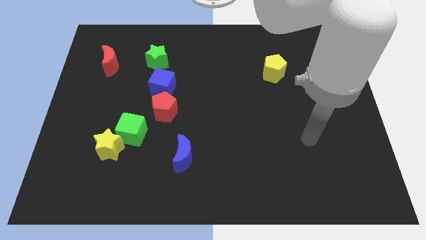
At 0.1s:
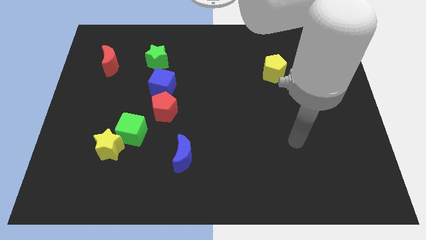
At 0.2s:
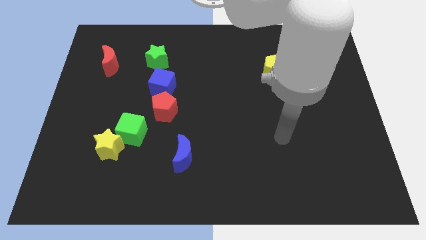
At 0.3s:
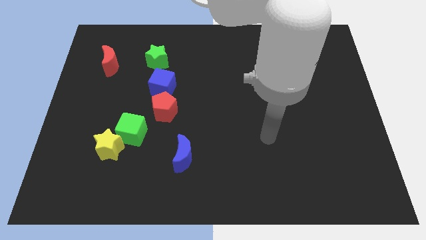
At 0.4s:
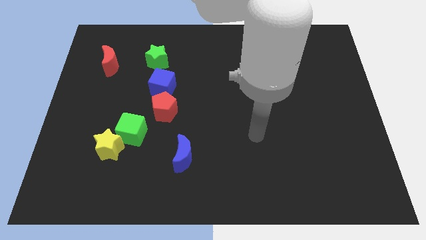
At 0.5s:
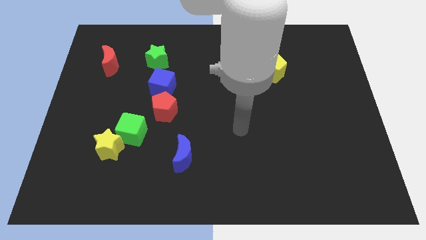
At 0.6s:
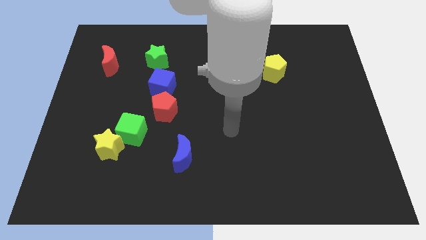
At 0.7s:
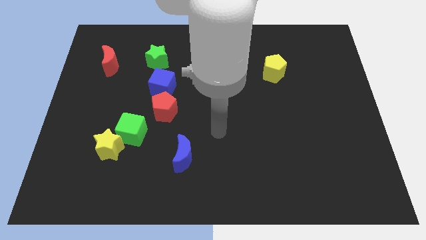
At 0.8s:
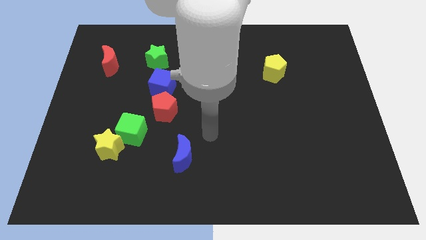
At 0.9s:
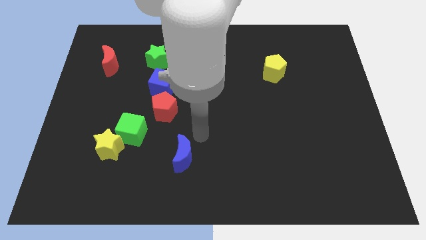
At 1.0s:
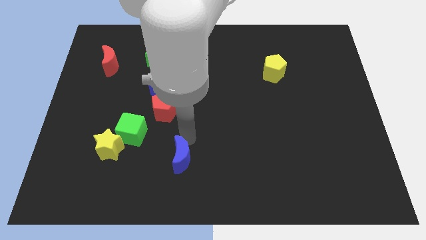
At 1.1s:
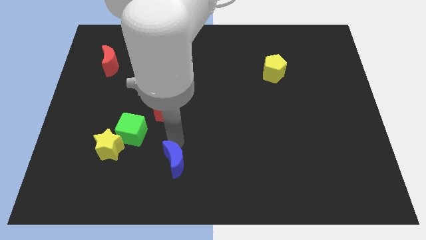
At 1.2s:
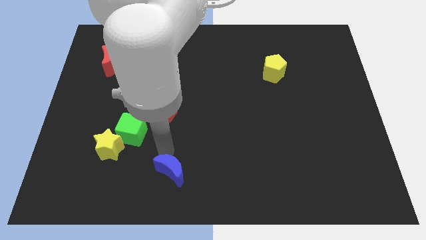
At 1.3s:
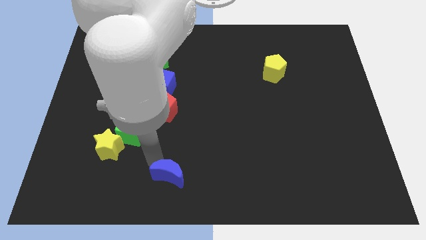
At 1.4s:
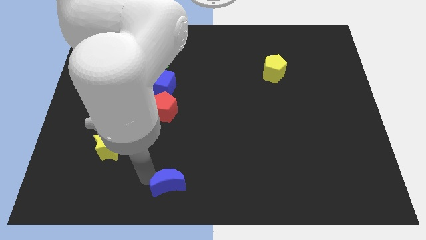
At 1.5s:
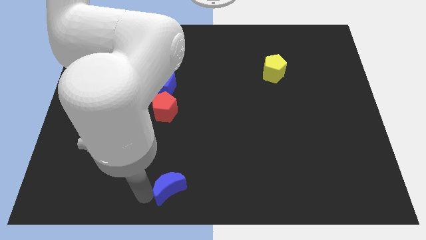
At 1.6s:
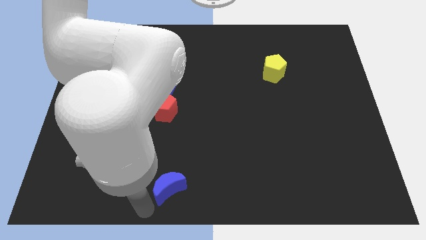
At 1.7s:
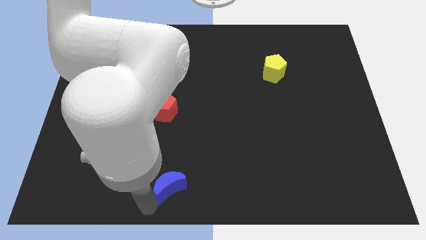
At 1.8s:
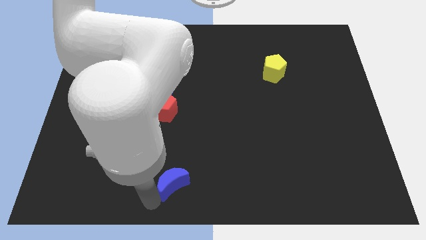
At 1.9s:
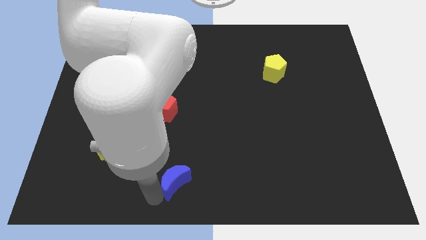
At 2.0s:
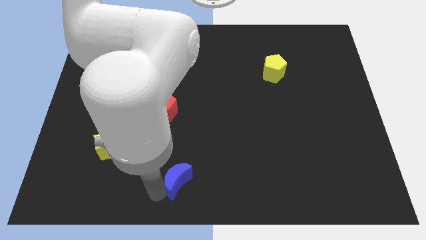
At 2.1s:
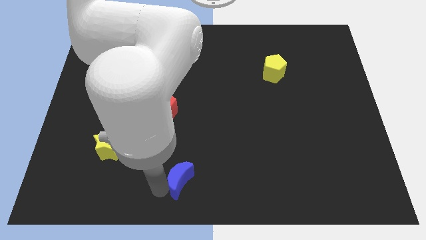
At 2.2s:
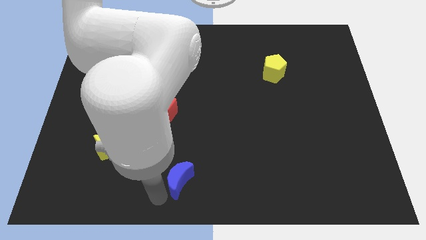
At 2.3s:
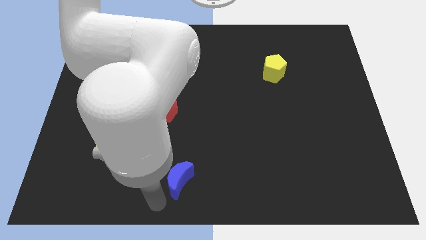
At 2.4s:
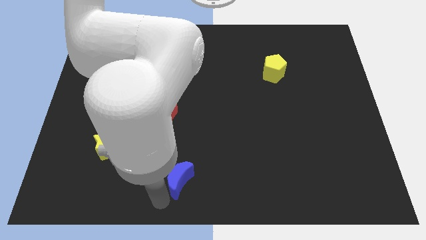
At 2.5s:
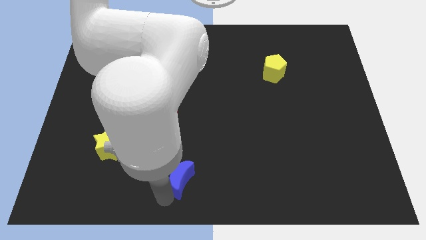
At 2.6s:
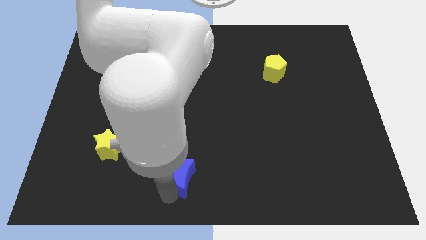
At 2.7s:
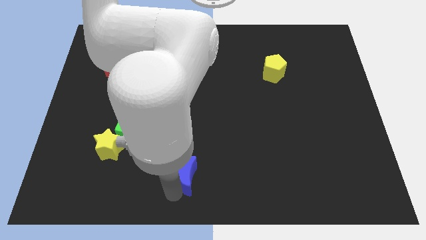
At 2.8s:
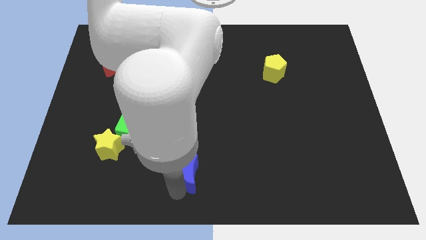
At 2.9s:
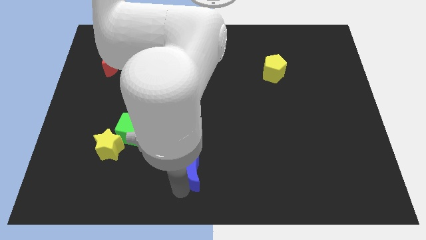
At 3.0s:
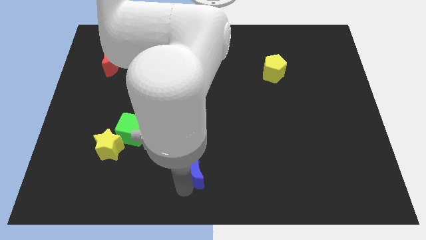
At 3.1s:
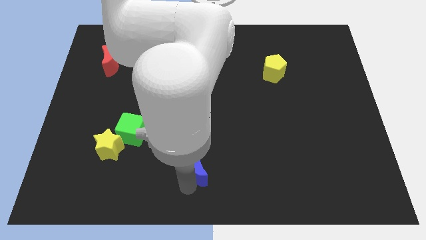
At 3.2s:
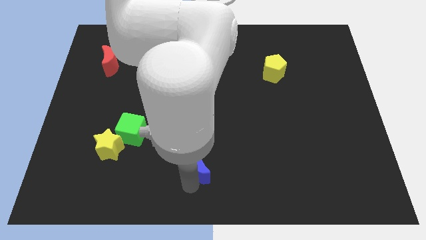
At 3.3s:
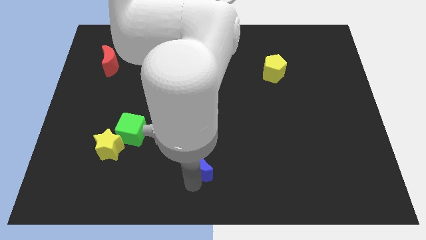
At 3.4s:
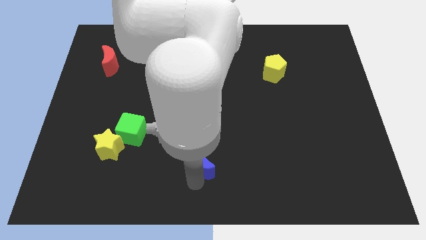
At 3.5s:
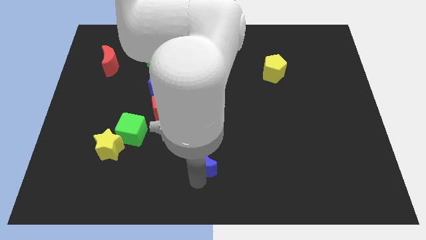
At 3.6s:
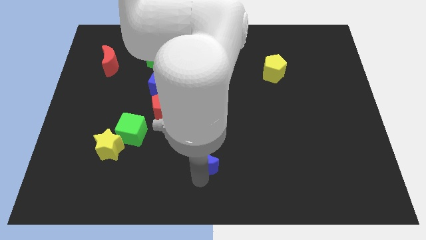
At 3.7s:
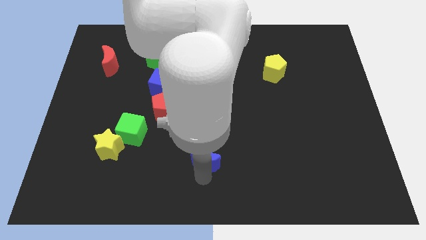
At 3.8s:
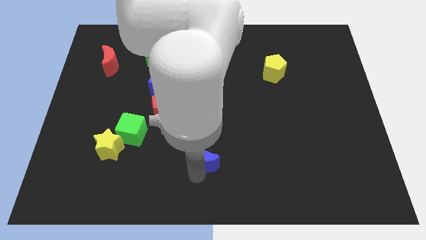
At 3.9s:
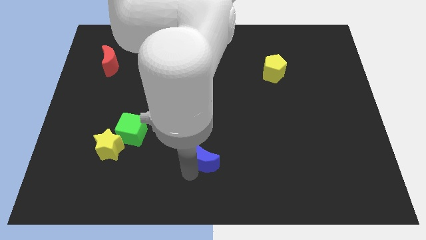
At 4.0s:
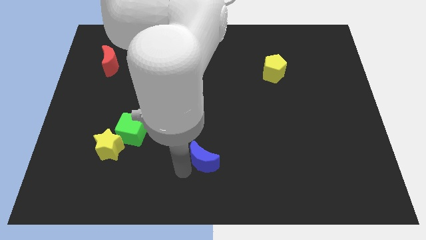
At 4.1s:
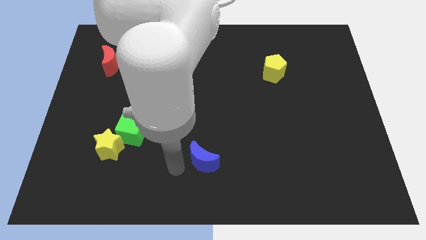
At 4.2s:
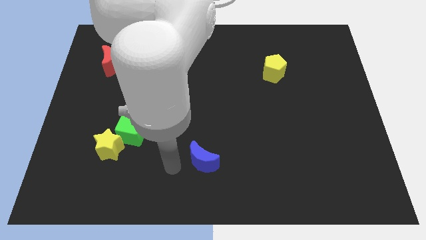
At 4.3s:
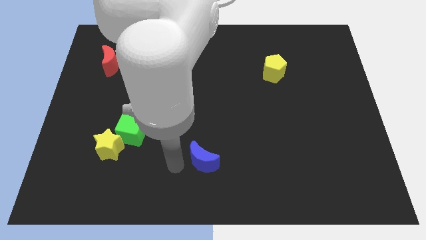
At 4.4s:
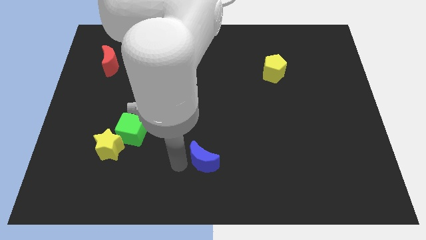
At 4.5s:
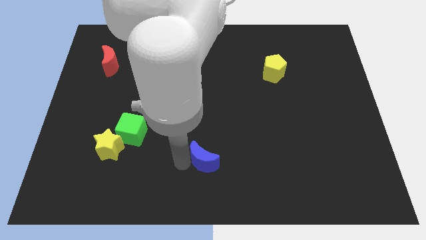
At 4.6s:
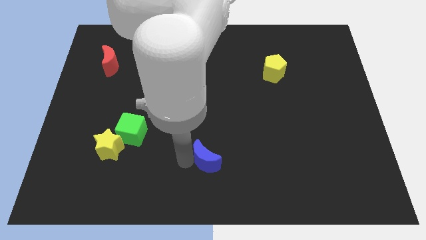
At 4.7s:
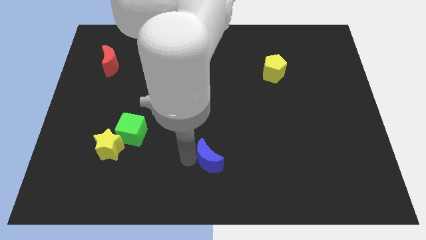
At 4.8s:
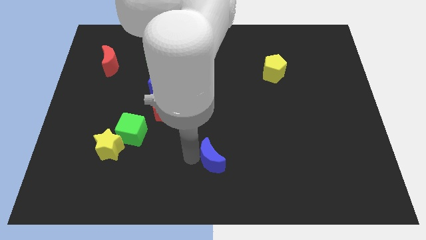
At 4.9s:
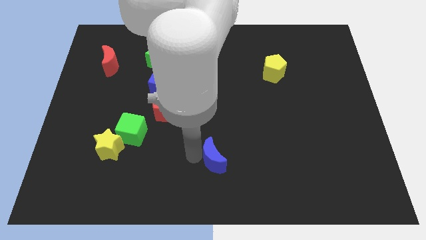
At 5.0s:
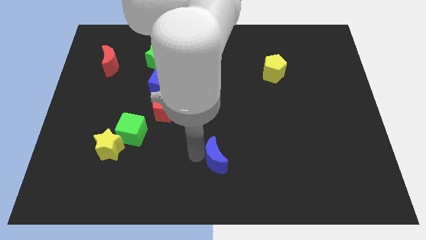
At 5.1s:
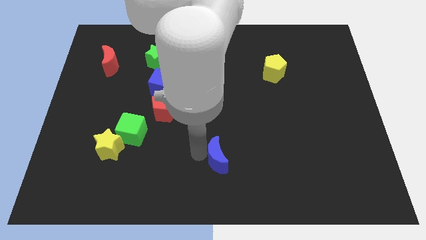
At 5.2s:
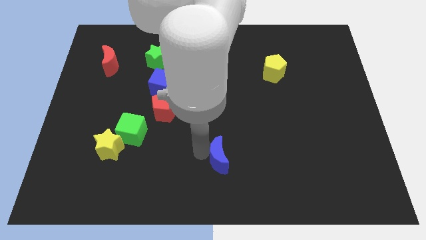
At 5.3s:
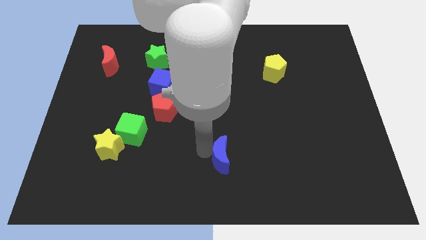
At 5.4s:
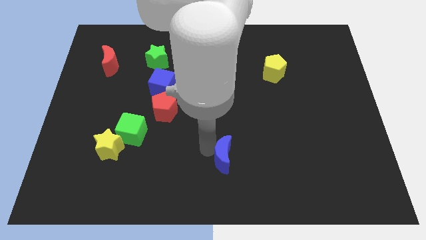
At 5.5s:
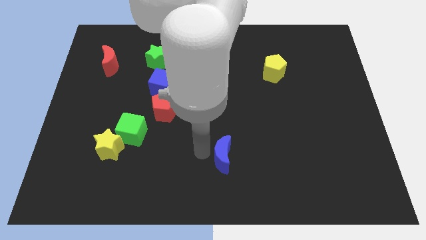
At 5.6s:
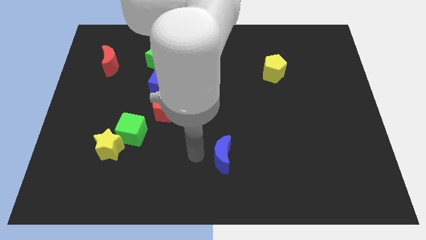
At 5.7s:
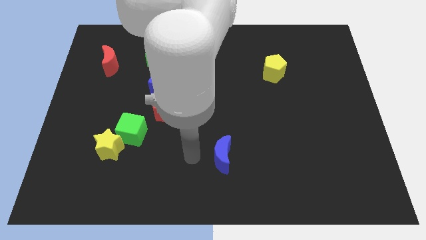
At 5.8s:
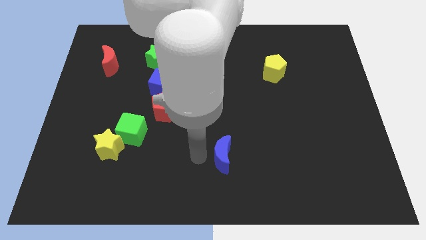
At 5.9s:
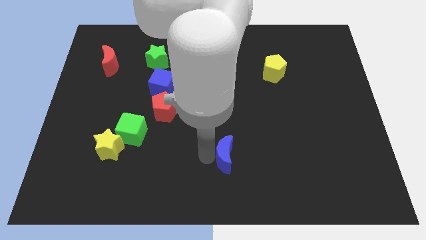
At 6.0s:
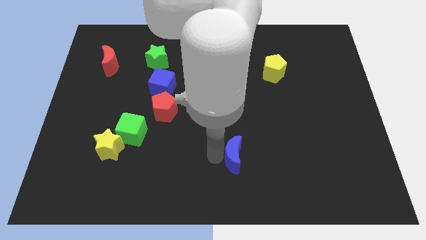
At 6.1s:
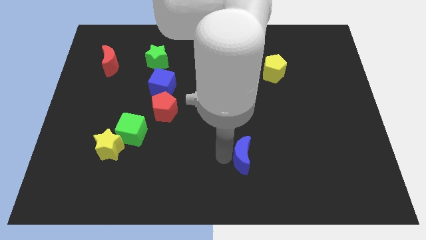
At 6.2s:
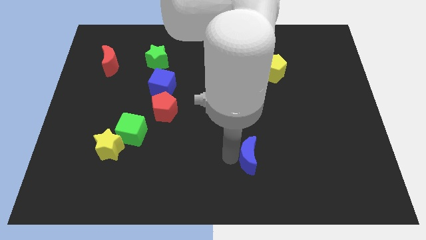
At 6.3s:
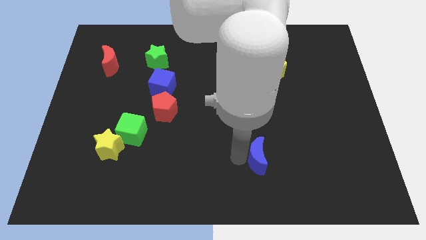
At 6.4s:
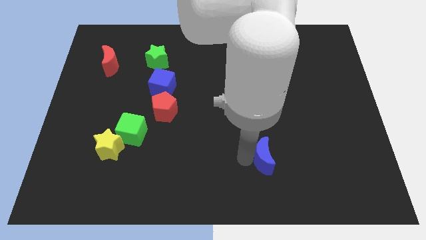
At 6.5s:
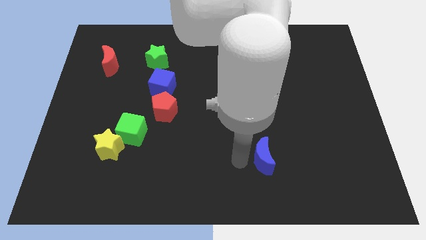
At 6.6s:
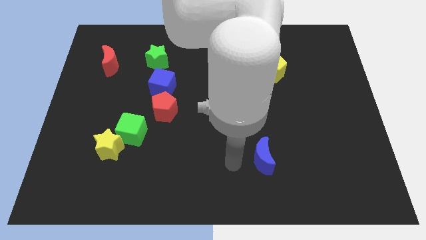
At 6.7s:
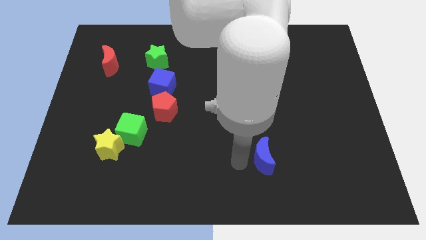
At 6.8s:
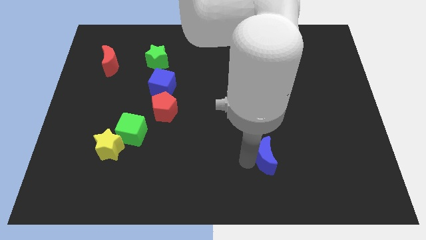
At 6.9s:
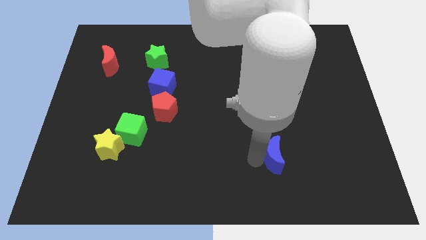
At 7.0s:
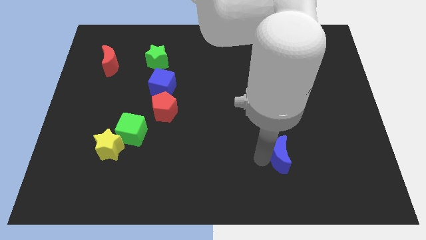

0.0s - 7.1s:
move the blue moon right

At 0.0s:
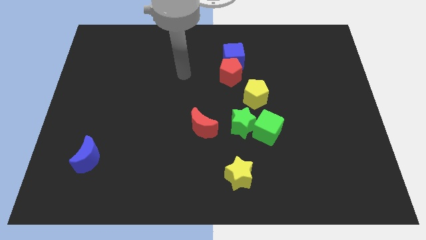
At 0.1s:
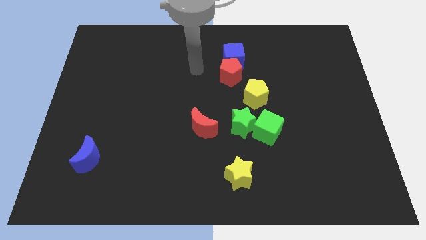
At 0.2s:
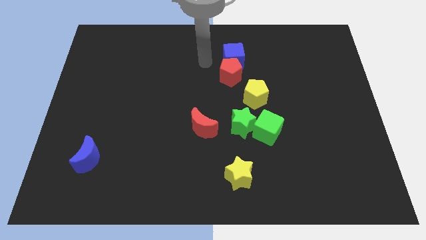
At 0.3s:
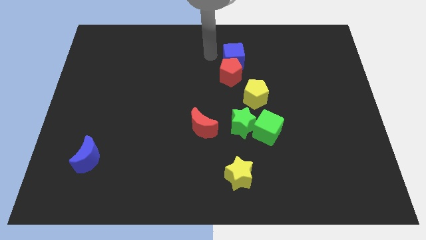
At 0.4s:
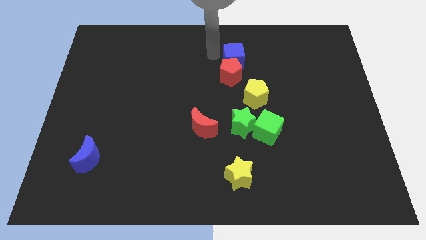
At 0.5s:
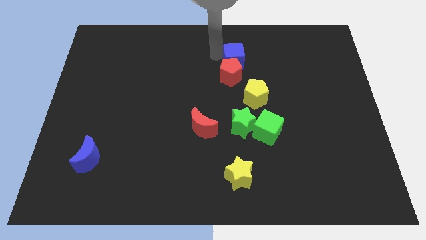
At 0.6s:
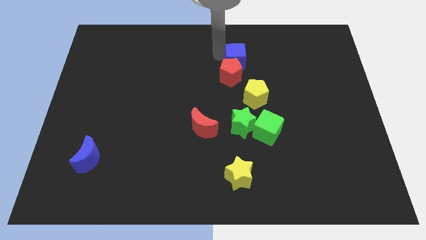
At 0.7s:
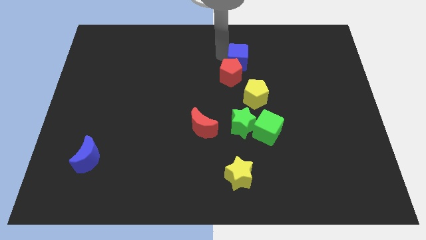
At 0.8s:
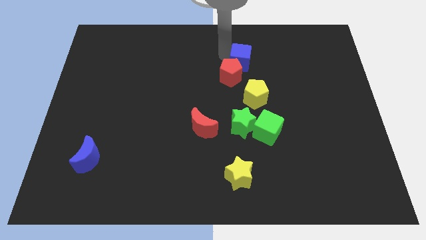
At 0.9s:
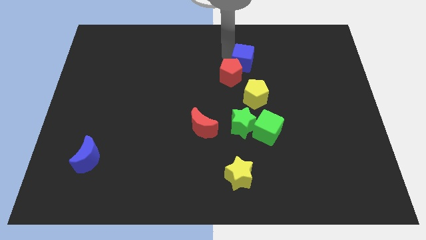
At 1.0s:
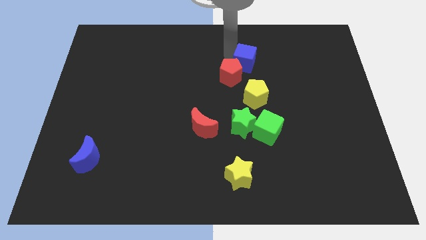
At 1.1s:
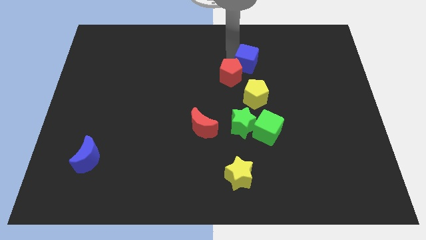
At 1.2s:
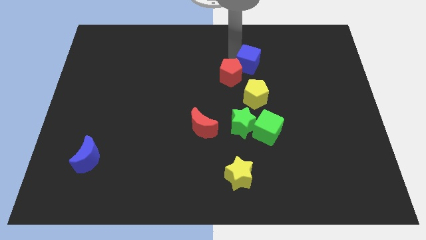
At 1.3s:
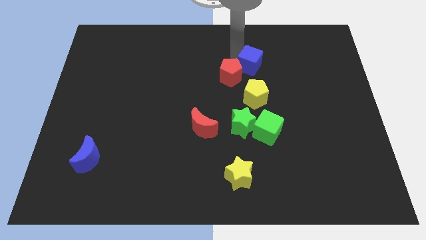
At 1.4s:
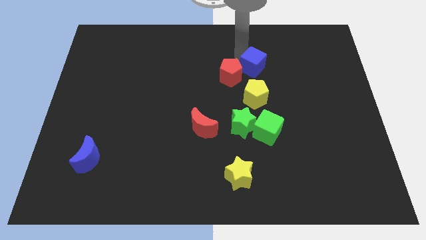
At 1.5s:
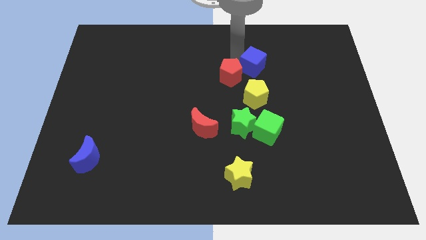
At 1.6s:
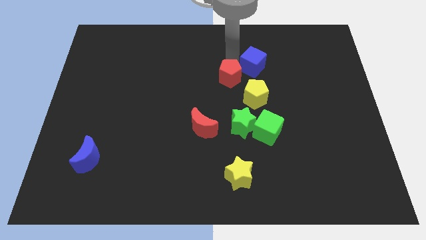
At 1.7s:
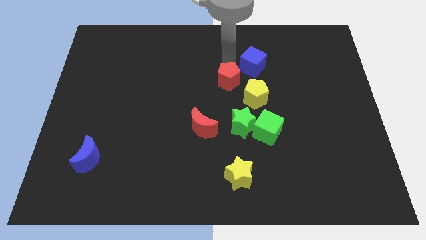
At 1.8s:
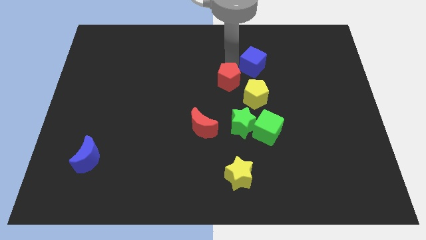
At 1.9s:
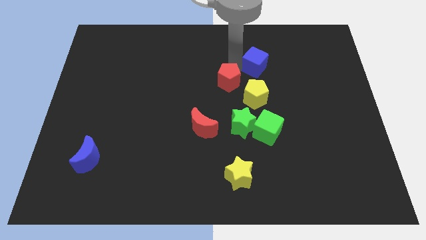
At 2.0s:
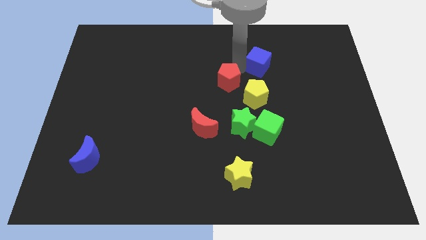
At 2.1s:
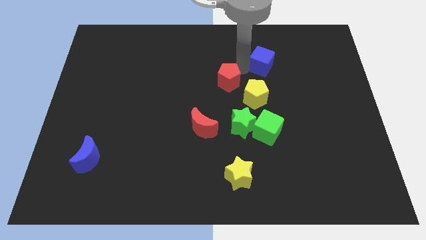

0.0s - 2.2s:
slide the blue cube slightly right
